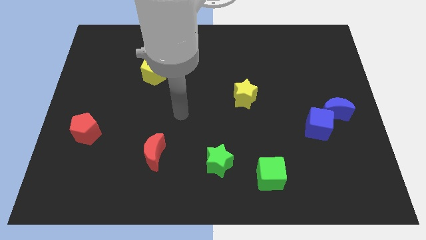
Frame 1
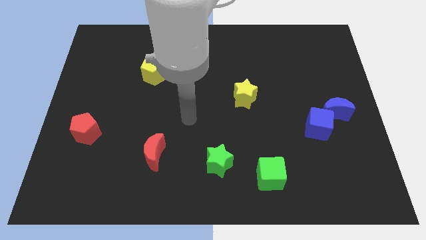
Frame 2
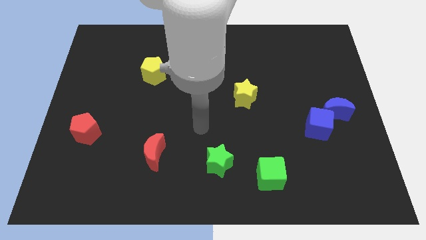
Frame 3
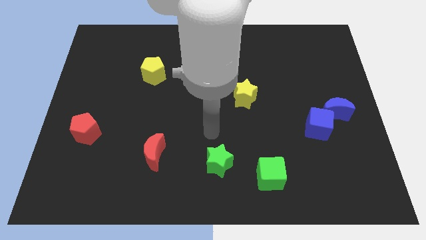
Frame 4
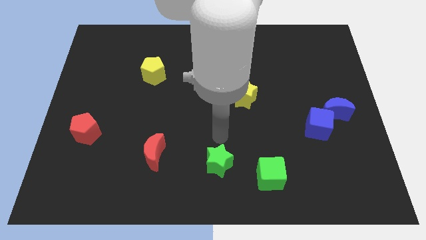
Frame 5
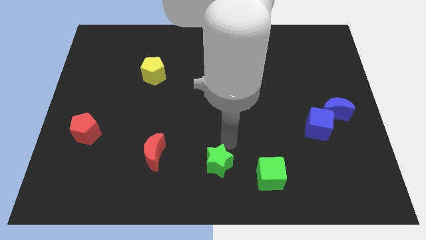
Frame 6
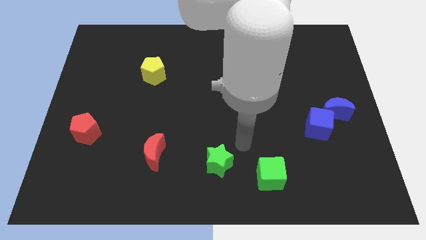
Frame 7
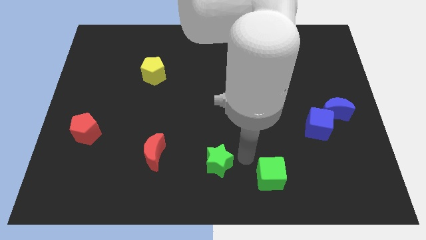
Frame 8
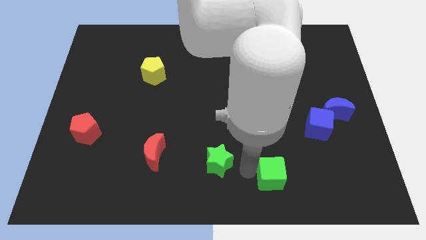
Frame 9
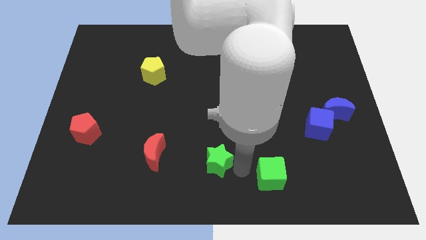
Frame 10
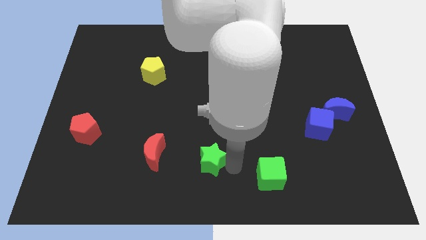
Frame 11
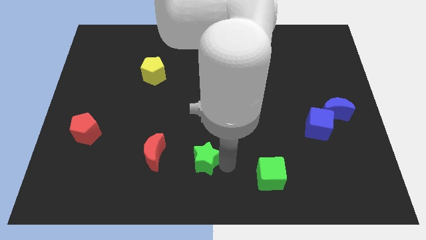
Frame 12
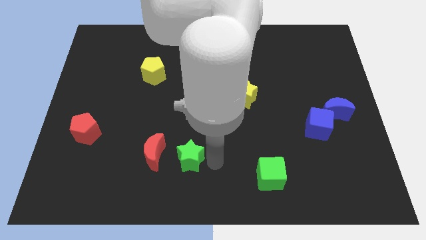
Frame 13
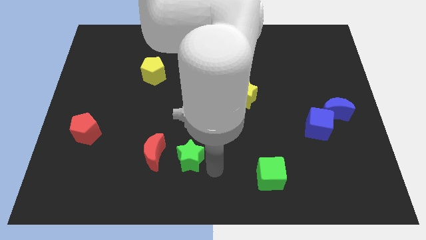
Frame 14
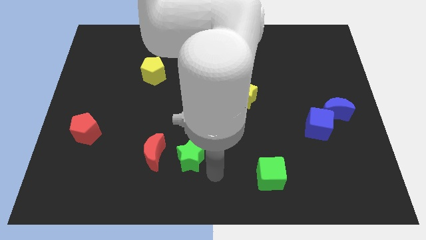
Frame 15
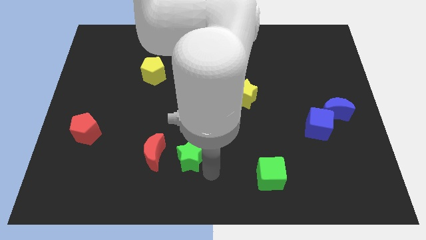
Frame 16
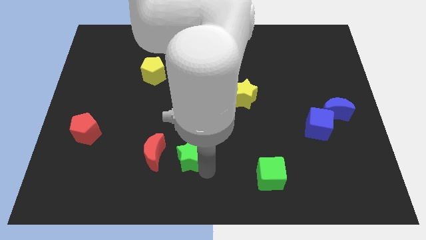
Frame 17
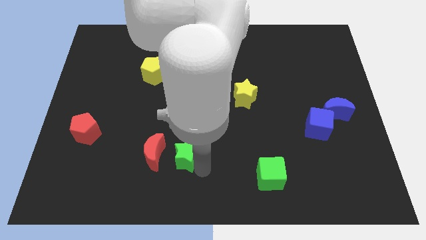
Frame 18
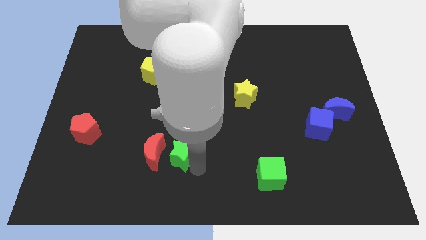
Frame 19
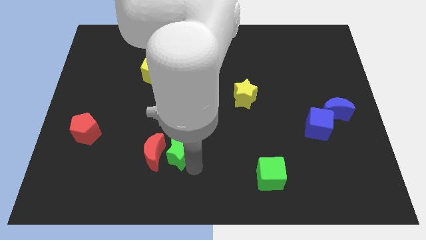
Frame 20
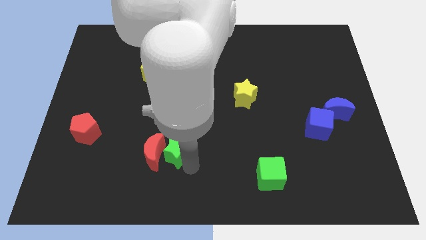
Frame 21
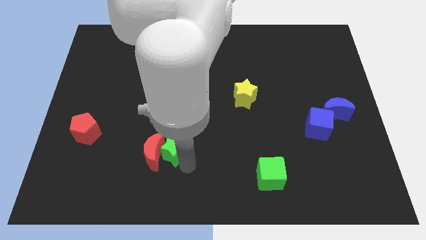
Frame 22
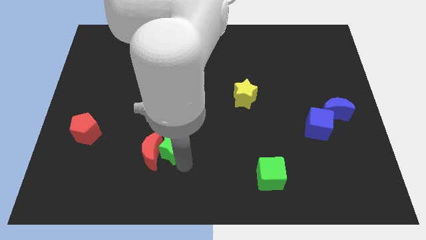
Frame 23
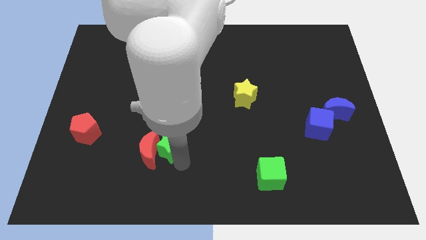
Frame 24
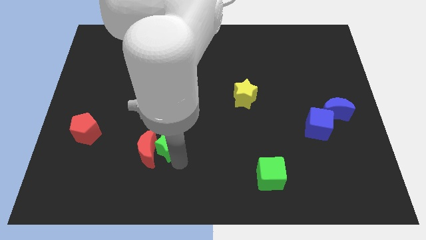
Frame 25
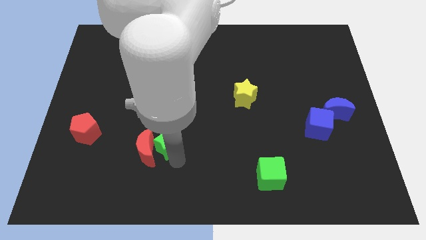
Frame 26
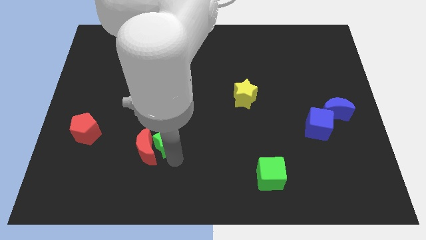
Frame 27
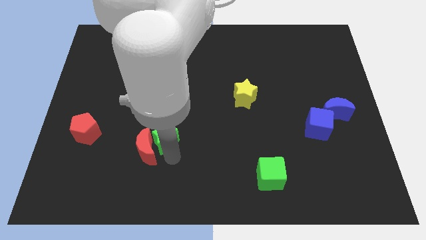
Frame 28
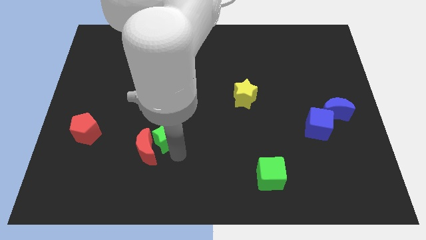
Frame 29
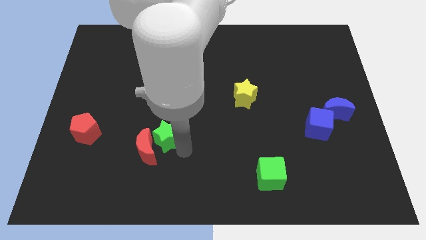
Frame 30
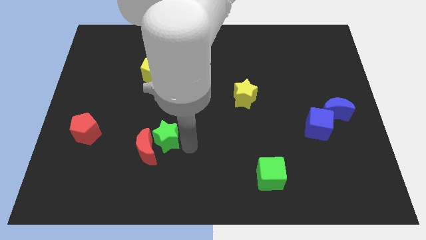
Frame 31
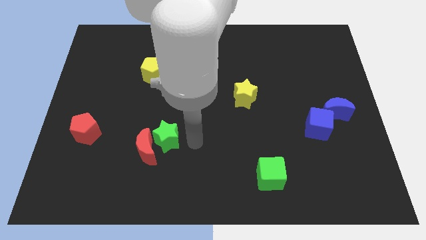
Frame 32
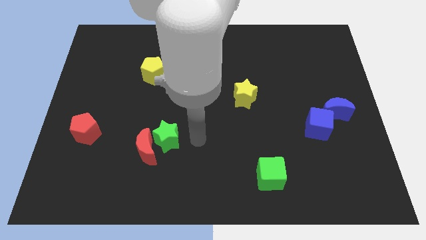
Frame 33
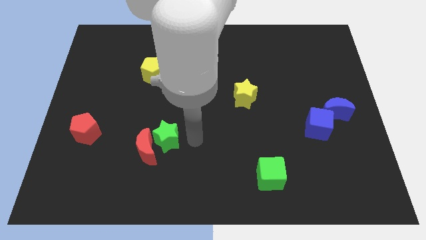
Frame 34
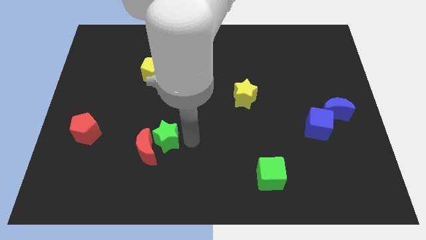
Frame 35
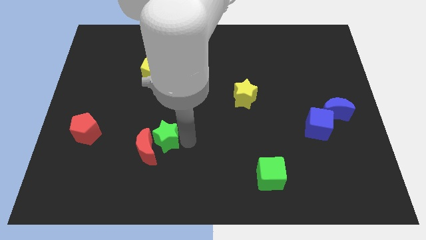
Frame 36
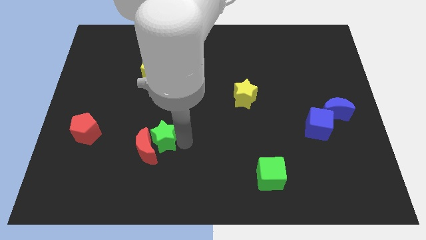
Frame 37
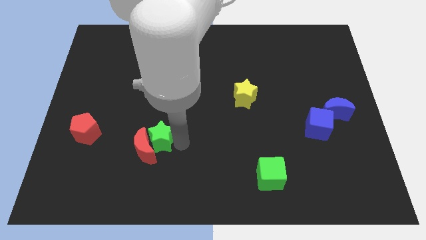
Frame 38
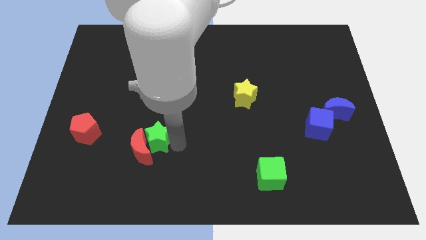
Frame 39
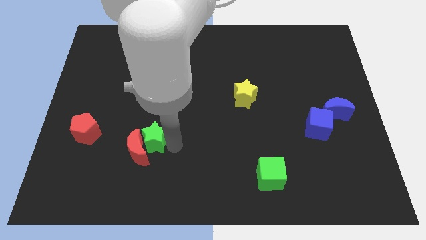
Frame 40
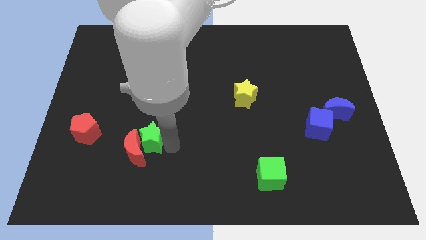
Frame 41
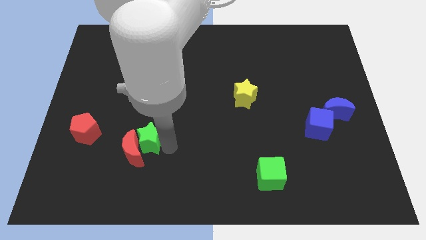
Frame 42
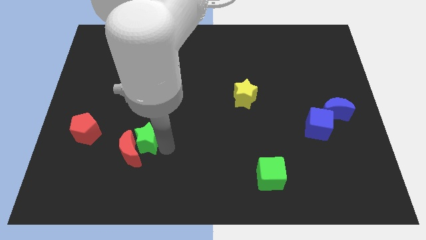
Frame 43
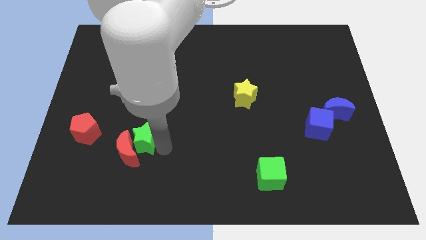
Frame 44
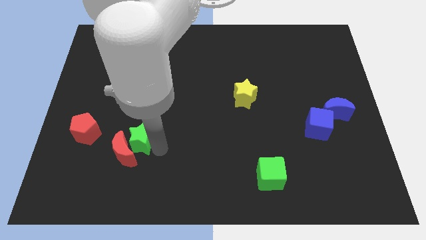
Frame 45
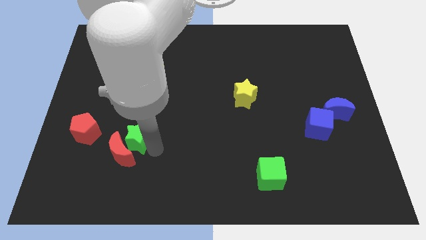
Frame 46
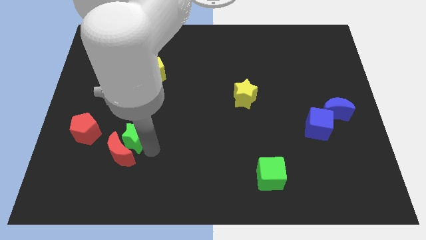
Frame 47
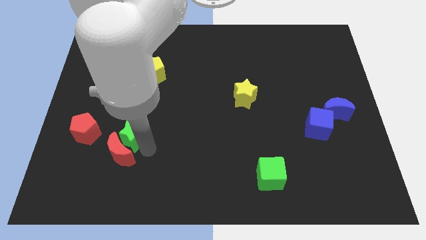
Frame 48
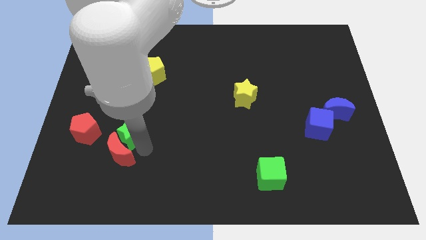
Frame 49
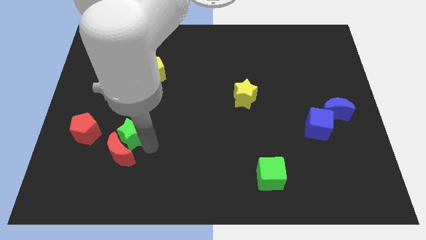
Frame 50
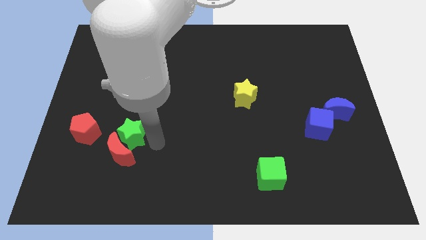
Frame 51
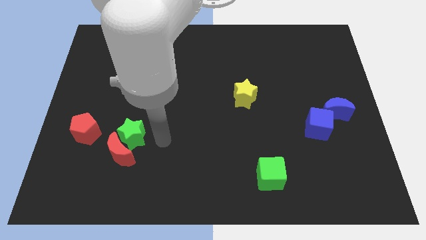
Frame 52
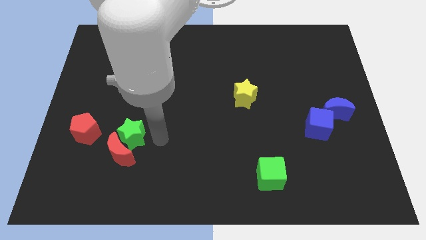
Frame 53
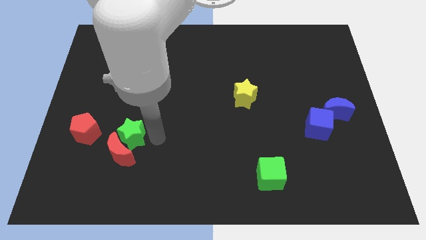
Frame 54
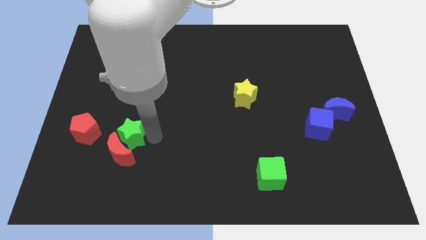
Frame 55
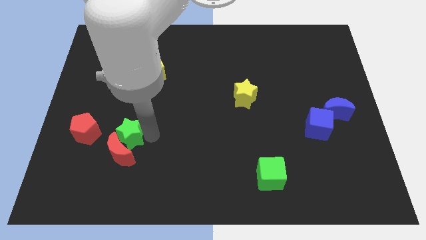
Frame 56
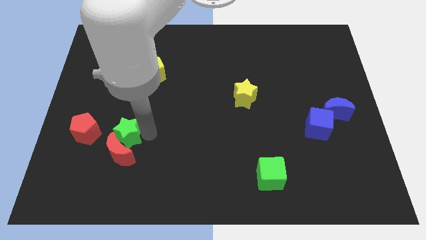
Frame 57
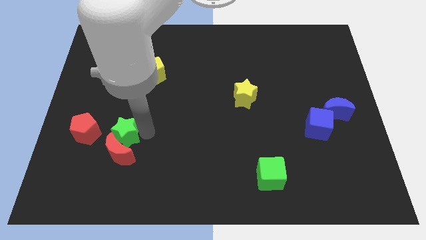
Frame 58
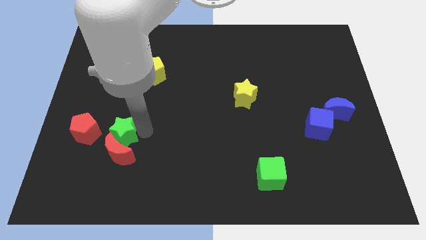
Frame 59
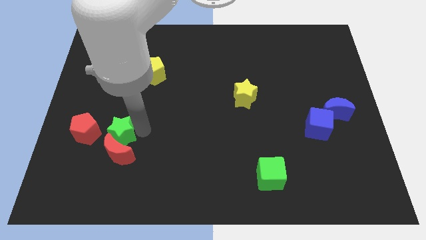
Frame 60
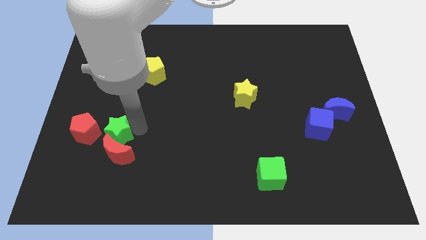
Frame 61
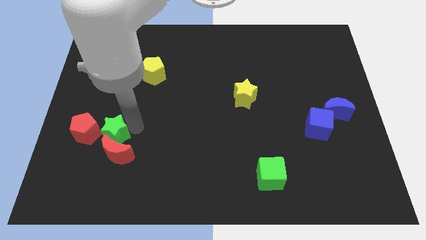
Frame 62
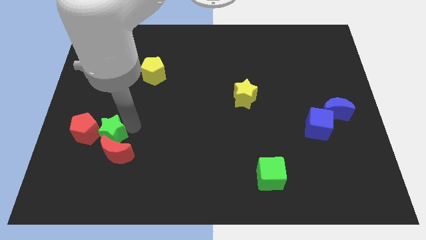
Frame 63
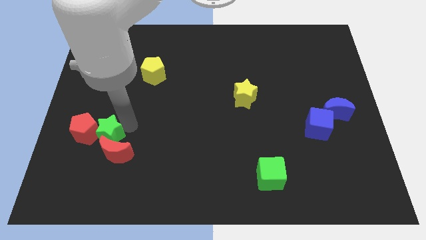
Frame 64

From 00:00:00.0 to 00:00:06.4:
slide the green star close to the red pentagon

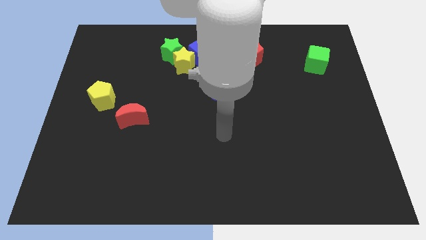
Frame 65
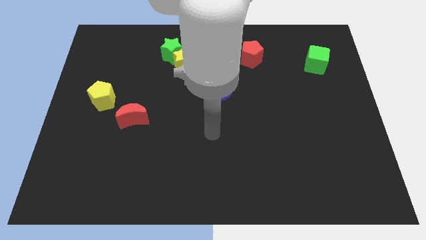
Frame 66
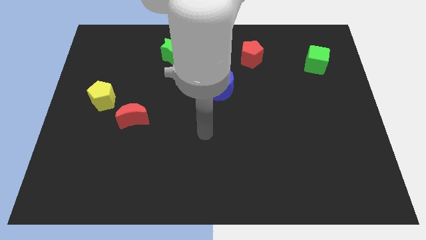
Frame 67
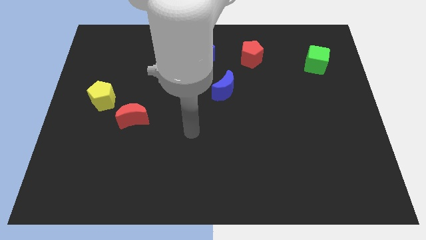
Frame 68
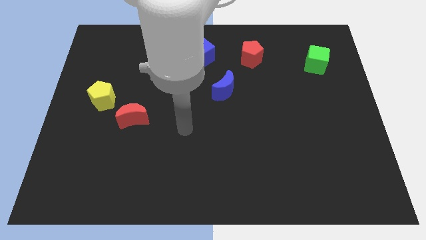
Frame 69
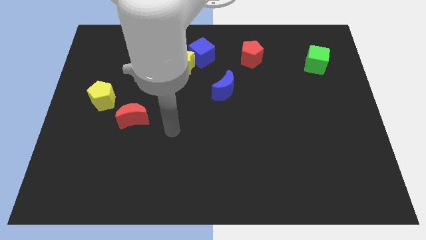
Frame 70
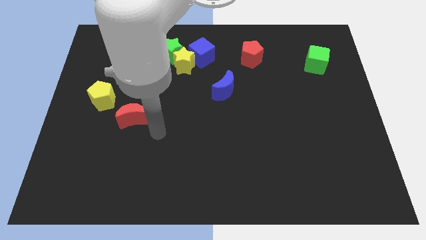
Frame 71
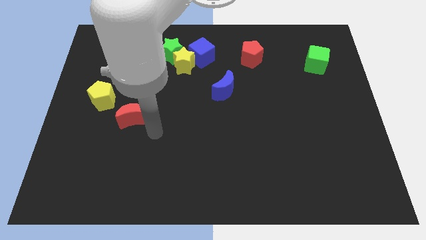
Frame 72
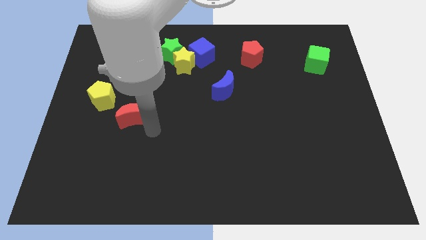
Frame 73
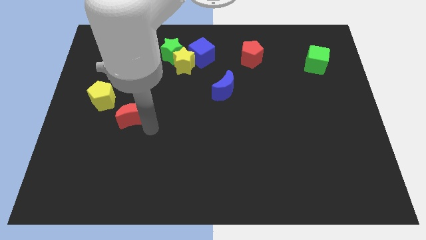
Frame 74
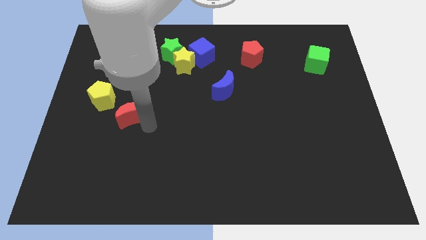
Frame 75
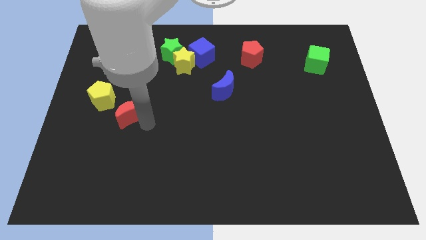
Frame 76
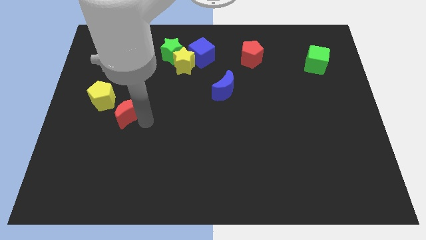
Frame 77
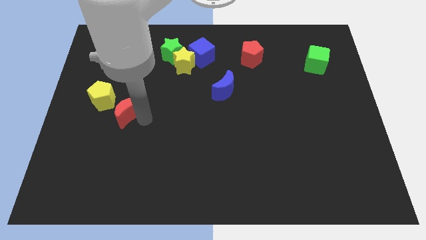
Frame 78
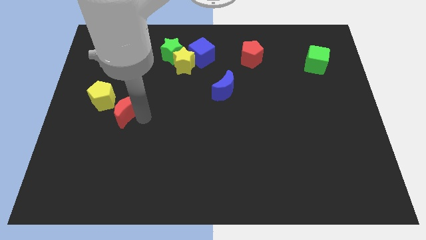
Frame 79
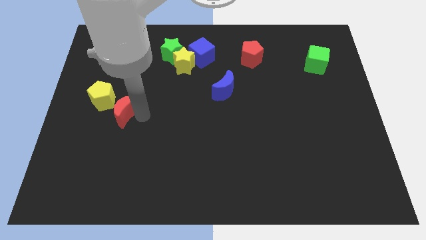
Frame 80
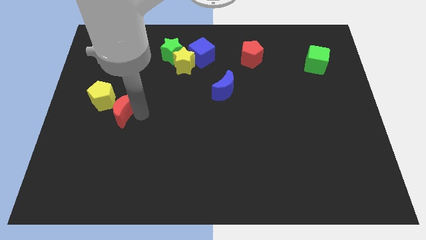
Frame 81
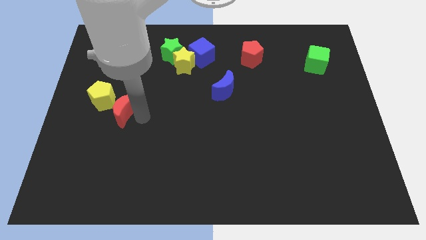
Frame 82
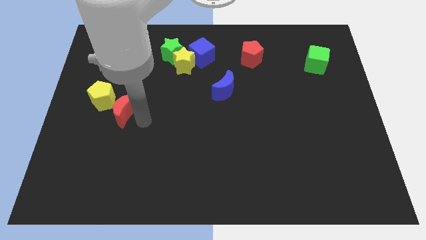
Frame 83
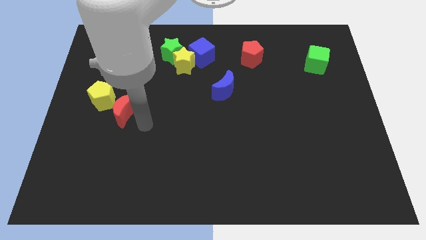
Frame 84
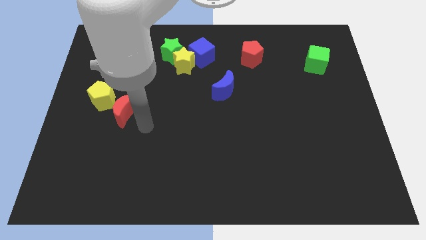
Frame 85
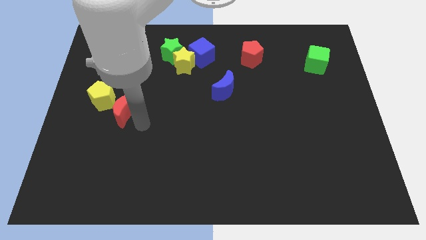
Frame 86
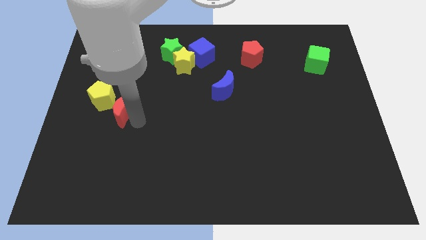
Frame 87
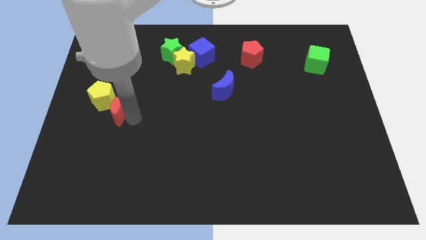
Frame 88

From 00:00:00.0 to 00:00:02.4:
push the red moon close to the yellow pentagon
